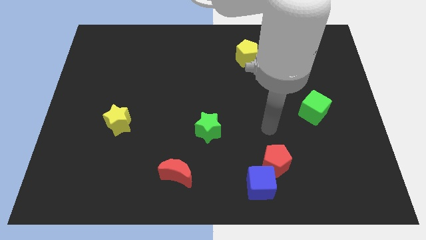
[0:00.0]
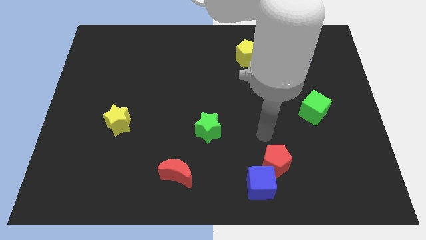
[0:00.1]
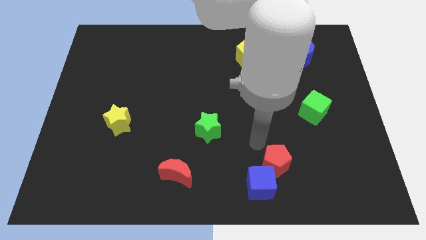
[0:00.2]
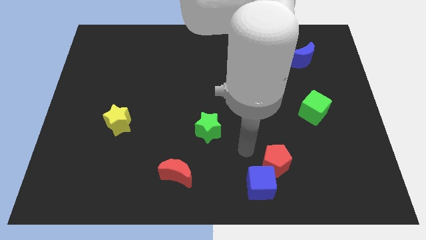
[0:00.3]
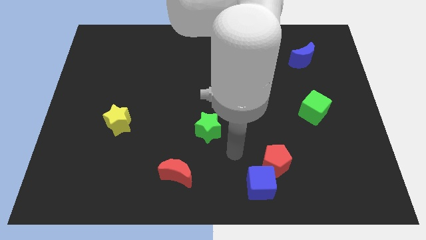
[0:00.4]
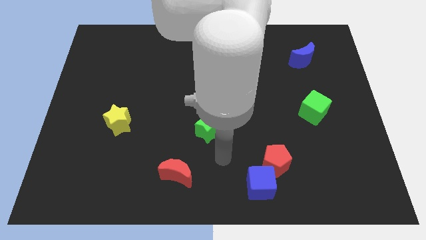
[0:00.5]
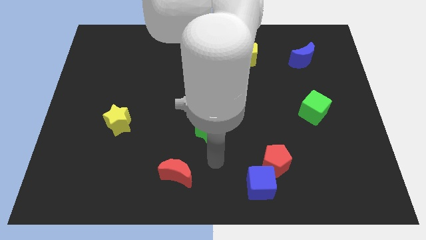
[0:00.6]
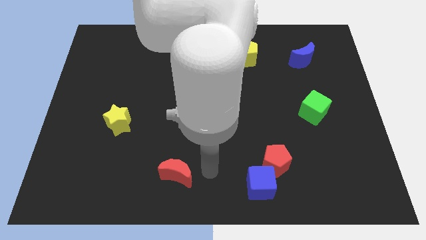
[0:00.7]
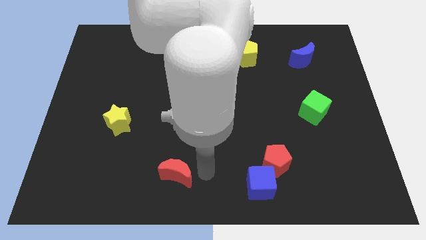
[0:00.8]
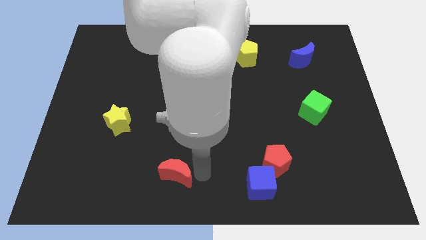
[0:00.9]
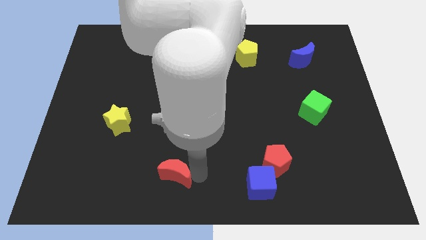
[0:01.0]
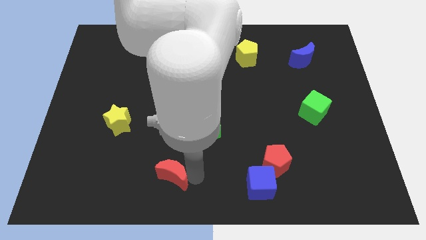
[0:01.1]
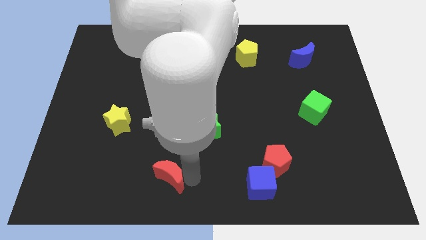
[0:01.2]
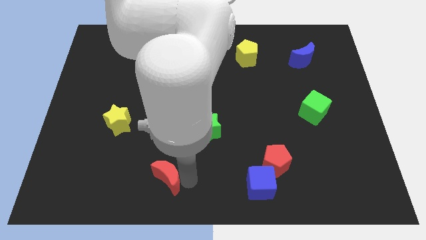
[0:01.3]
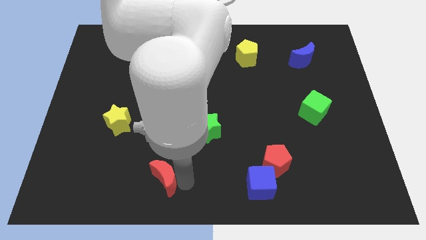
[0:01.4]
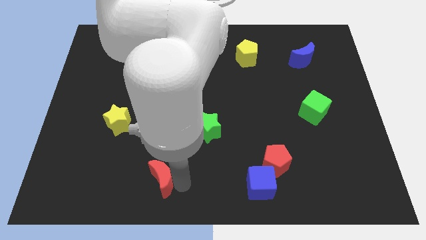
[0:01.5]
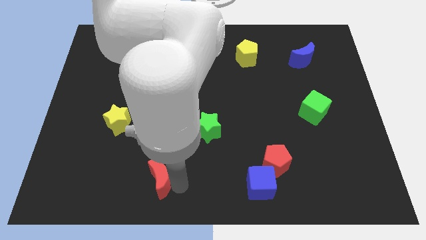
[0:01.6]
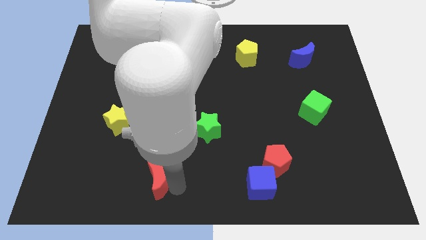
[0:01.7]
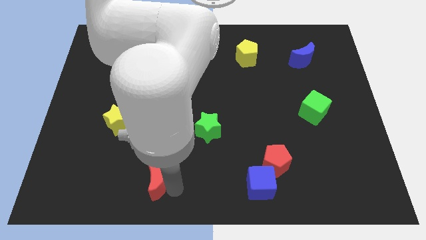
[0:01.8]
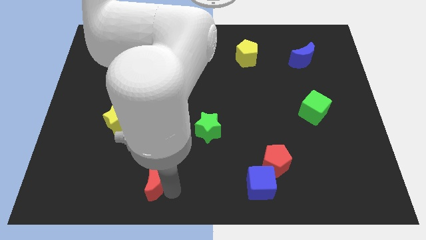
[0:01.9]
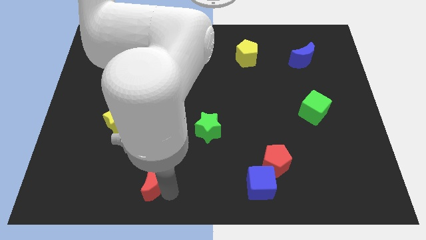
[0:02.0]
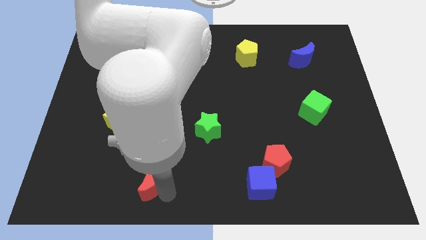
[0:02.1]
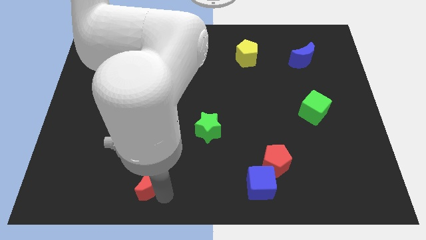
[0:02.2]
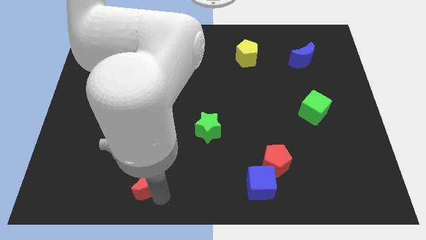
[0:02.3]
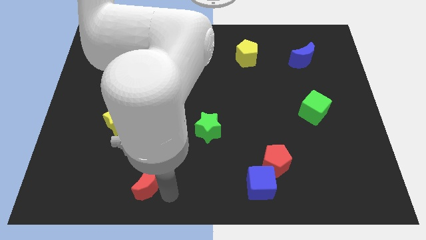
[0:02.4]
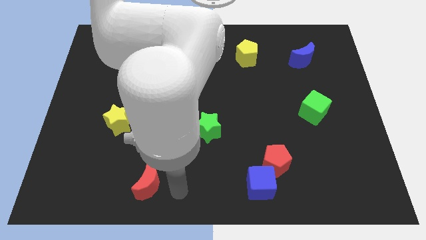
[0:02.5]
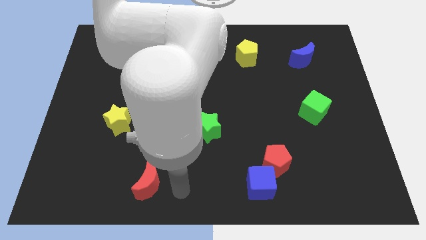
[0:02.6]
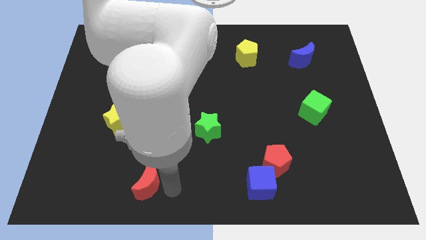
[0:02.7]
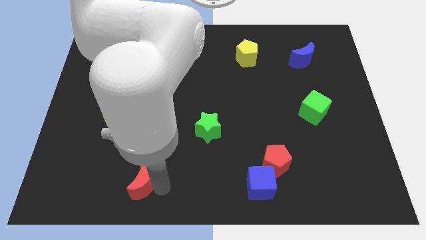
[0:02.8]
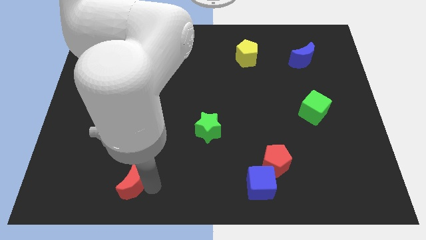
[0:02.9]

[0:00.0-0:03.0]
slide the red moon a little to the left

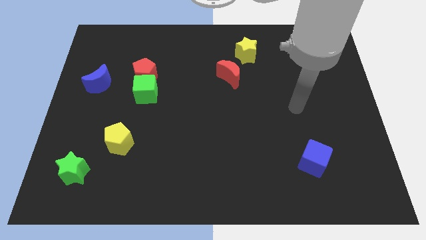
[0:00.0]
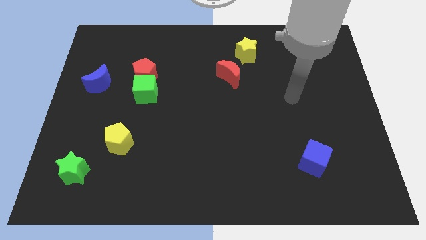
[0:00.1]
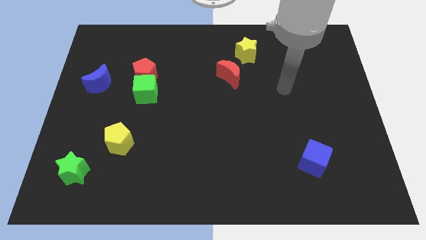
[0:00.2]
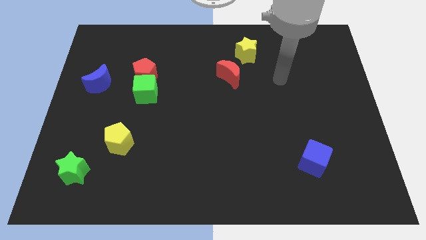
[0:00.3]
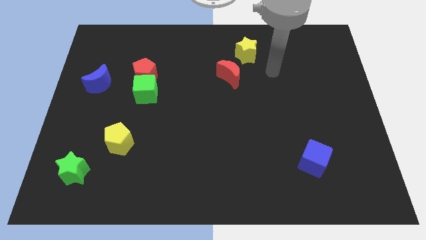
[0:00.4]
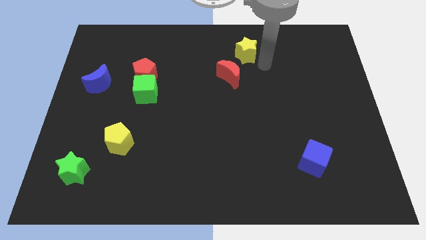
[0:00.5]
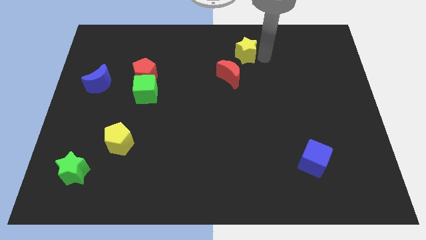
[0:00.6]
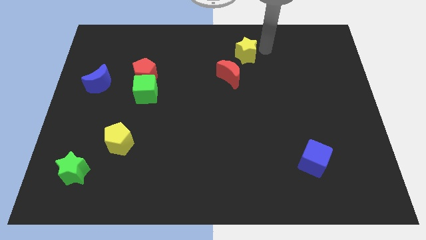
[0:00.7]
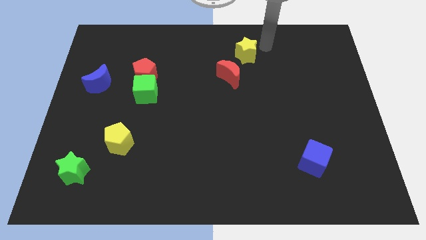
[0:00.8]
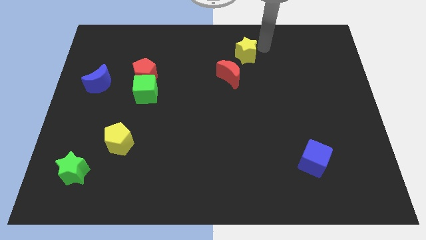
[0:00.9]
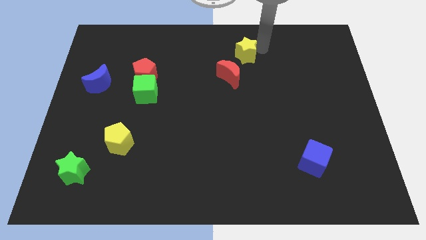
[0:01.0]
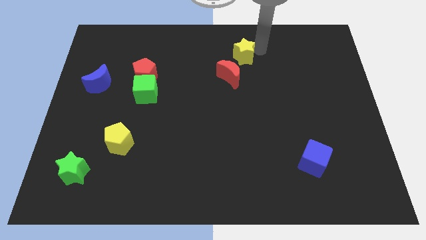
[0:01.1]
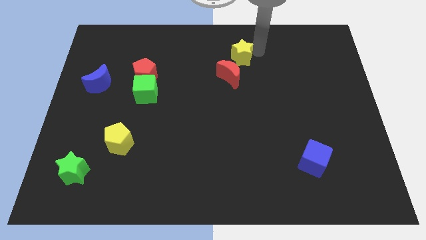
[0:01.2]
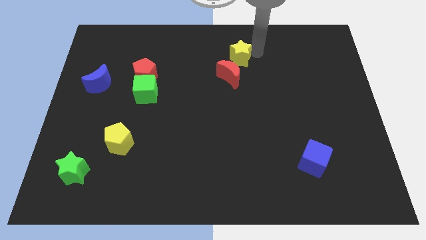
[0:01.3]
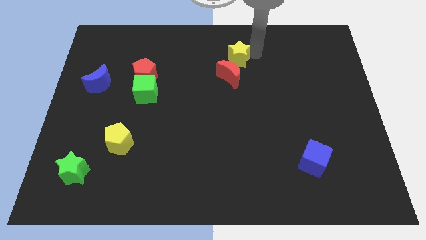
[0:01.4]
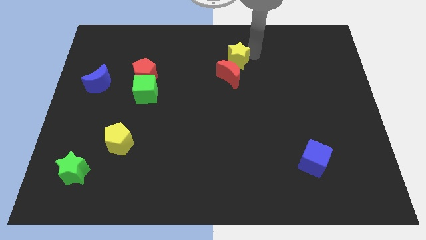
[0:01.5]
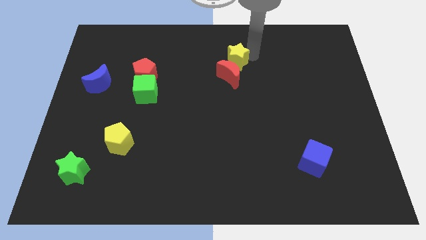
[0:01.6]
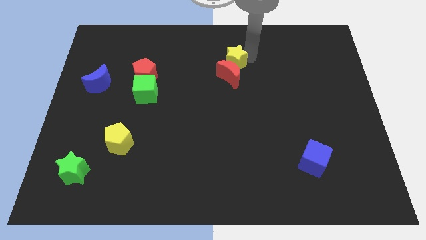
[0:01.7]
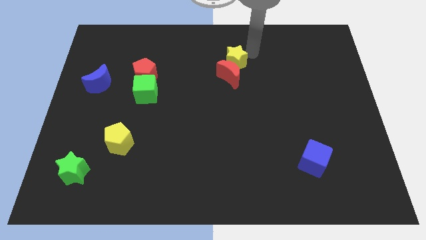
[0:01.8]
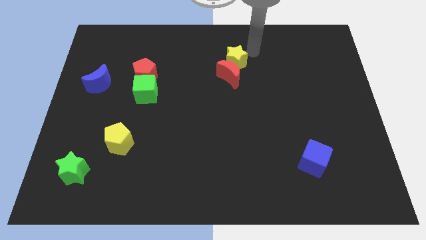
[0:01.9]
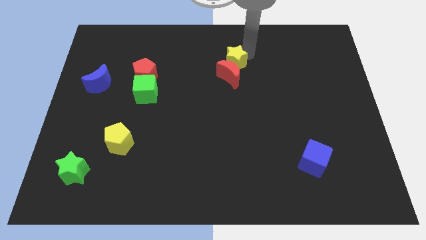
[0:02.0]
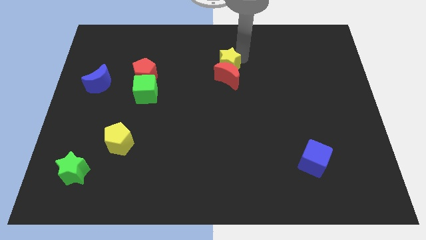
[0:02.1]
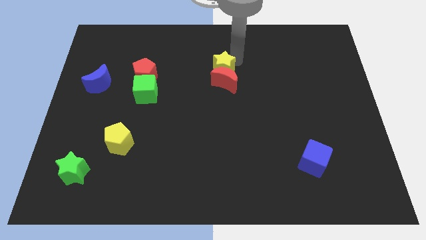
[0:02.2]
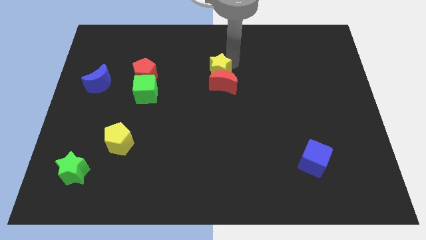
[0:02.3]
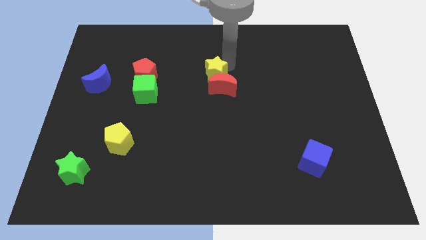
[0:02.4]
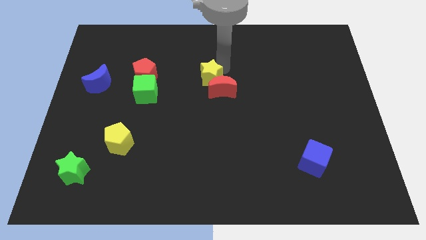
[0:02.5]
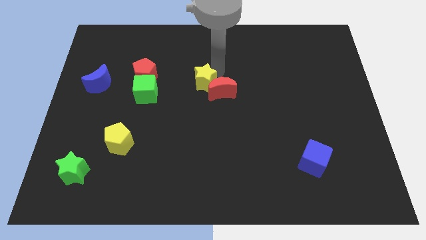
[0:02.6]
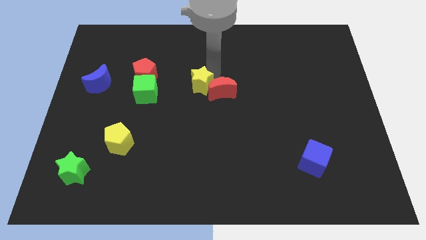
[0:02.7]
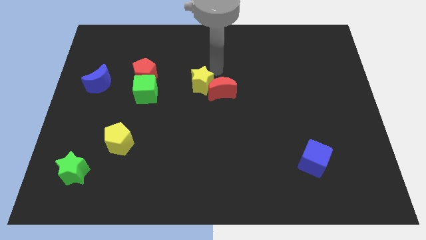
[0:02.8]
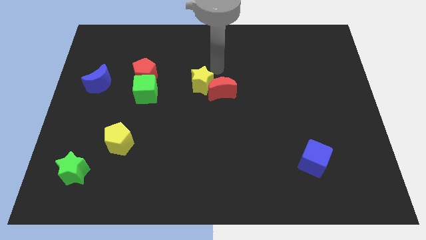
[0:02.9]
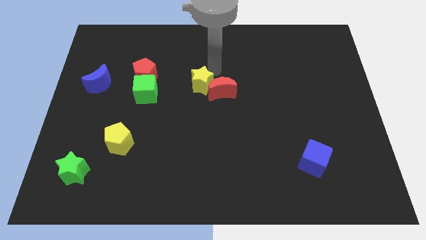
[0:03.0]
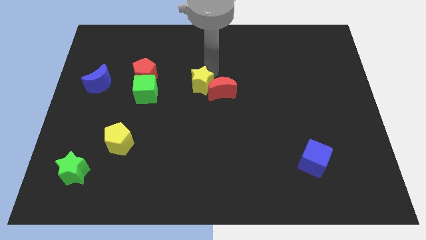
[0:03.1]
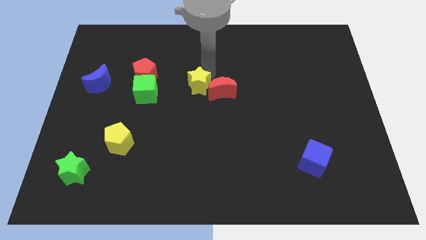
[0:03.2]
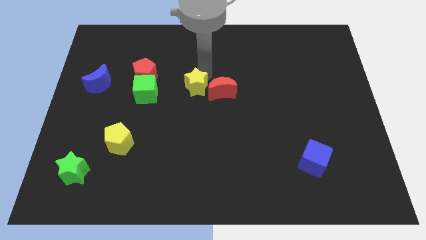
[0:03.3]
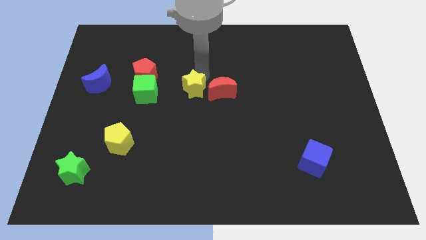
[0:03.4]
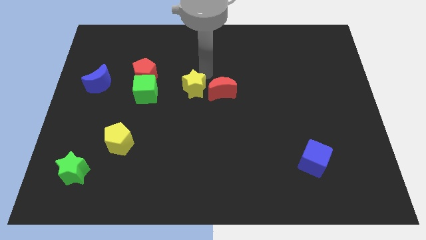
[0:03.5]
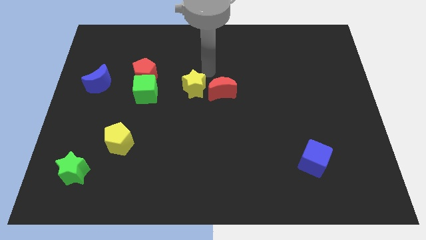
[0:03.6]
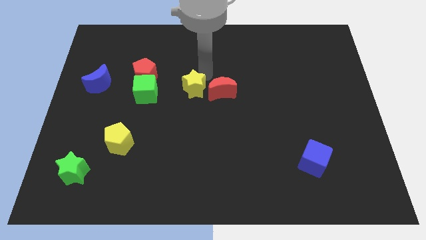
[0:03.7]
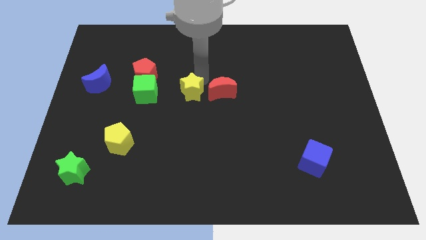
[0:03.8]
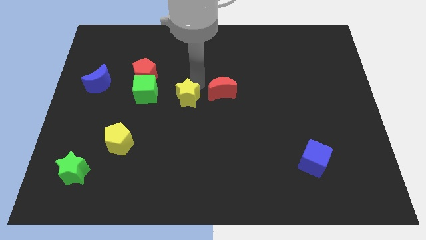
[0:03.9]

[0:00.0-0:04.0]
push the yellow star downwards and then to the left

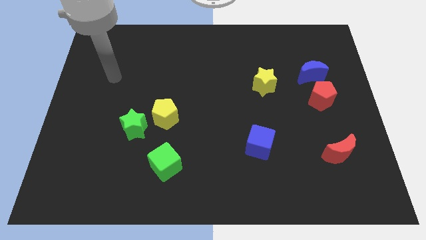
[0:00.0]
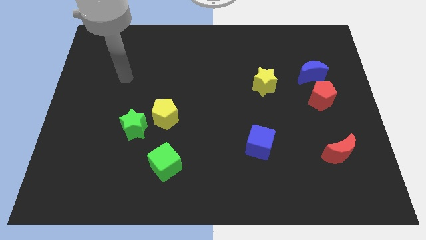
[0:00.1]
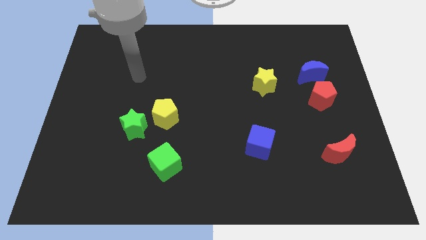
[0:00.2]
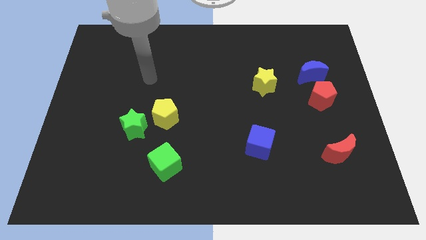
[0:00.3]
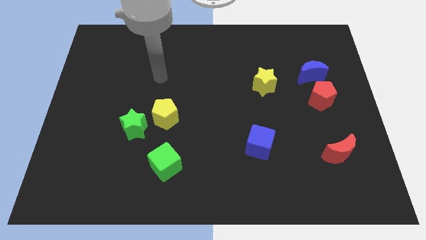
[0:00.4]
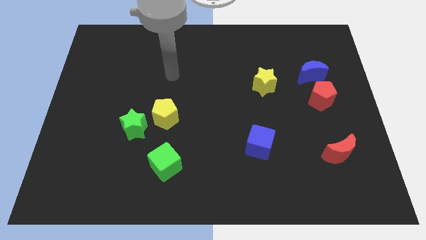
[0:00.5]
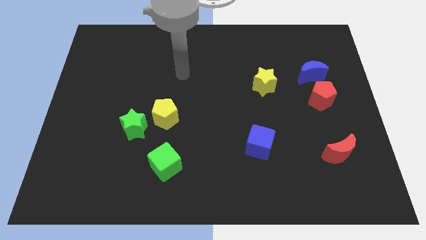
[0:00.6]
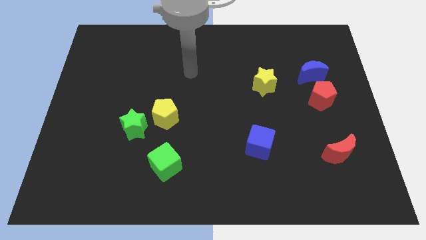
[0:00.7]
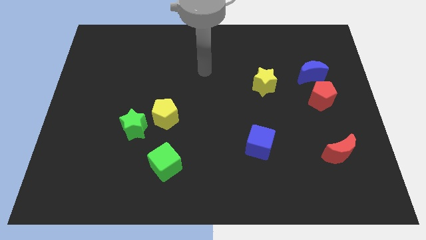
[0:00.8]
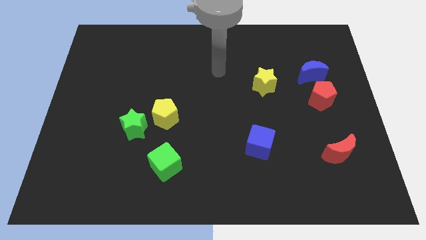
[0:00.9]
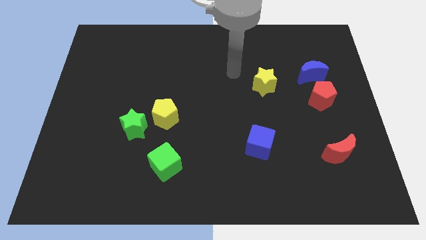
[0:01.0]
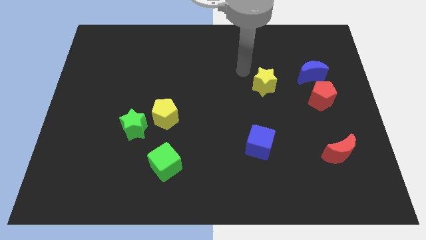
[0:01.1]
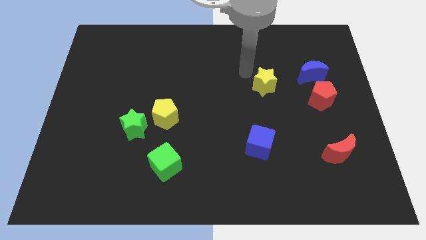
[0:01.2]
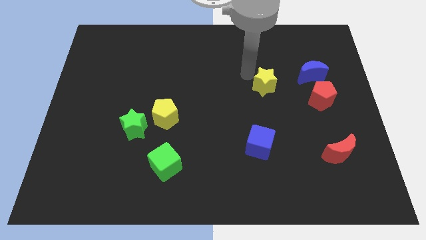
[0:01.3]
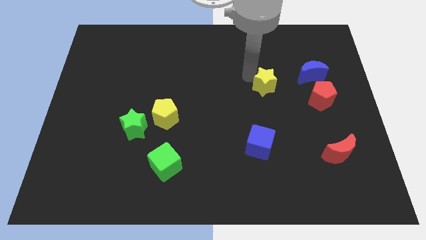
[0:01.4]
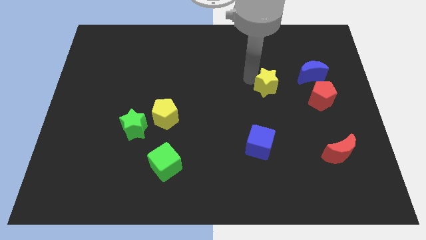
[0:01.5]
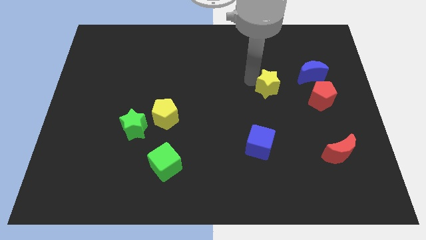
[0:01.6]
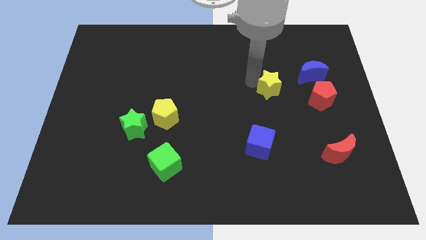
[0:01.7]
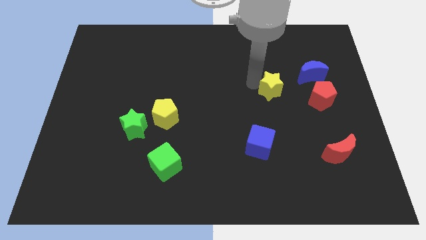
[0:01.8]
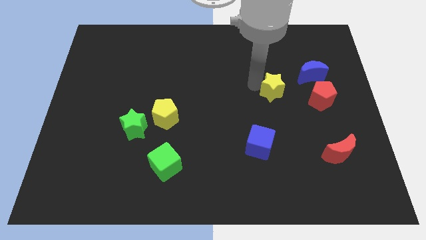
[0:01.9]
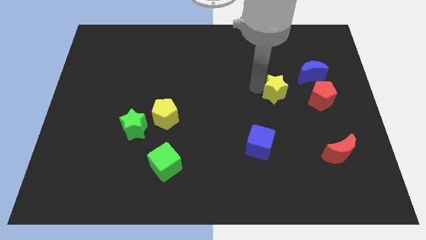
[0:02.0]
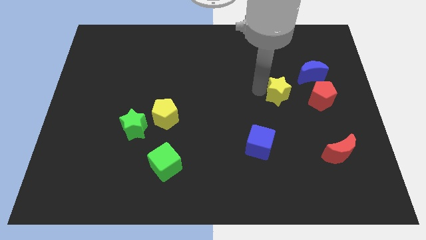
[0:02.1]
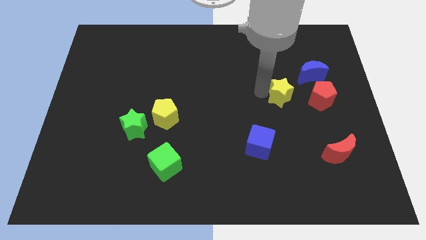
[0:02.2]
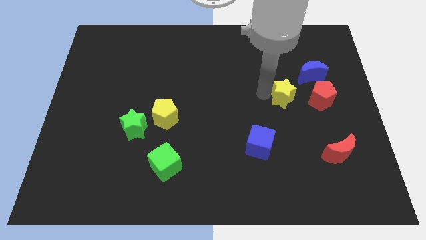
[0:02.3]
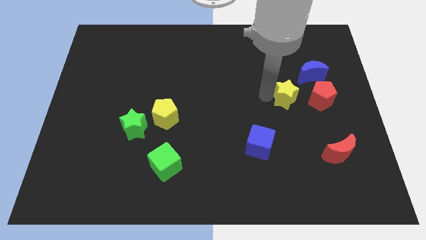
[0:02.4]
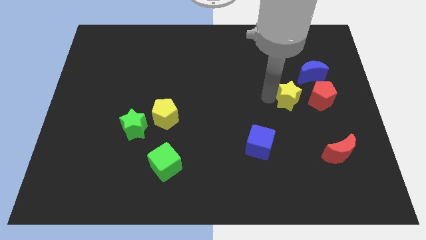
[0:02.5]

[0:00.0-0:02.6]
push the yellow star downwards and right a little bit
